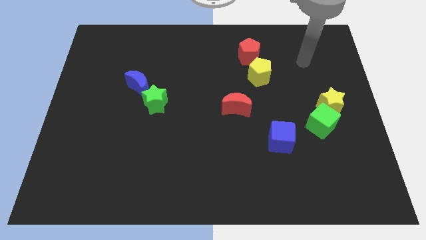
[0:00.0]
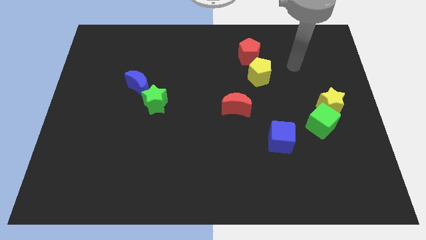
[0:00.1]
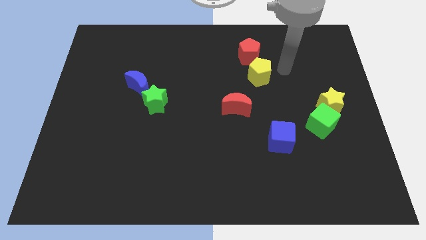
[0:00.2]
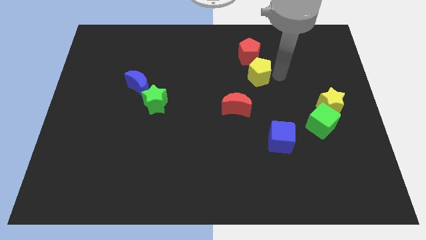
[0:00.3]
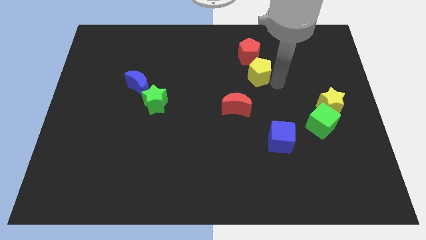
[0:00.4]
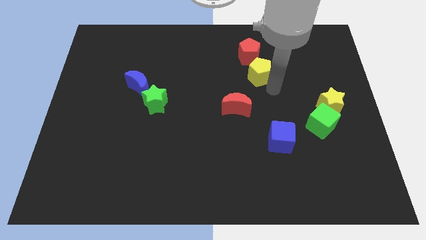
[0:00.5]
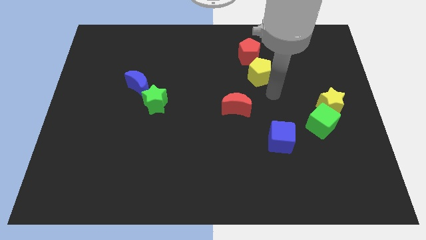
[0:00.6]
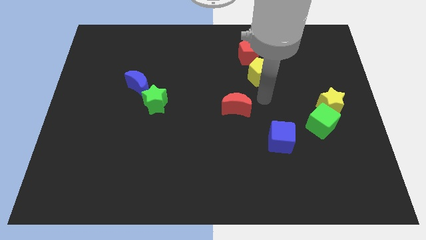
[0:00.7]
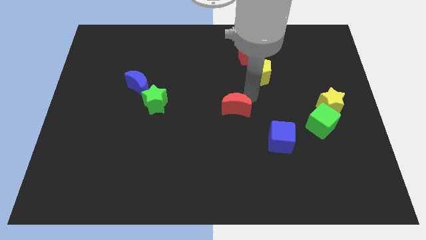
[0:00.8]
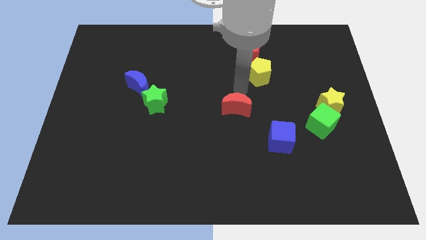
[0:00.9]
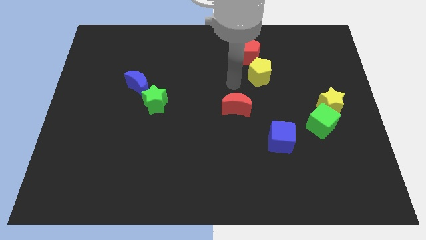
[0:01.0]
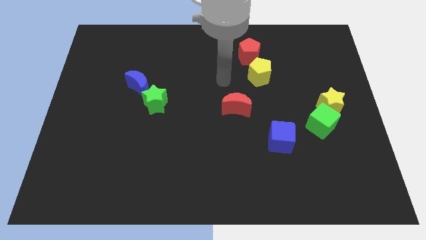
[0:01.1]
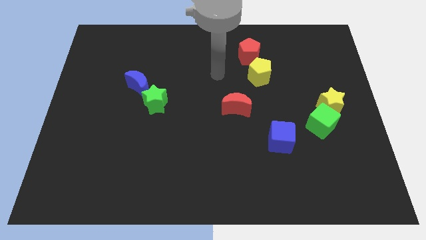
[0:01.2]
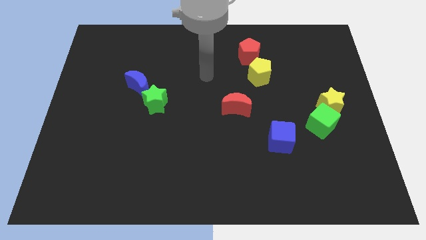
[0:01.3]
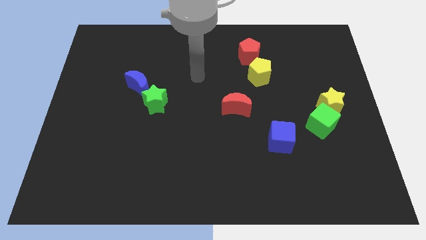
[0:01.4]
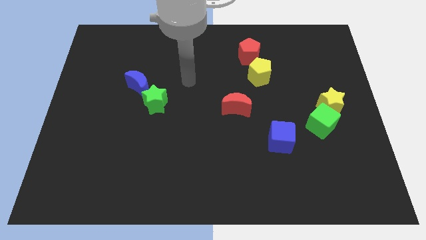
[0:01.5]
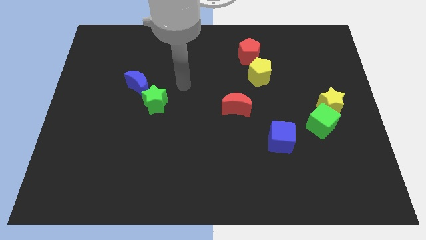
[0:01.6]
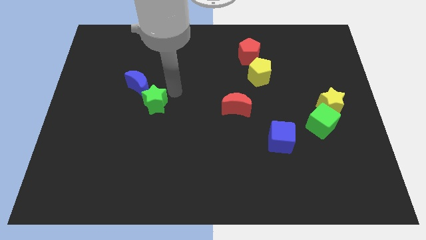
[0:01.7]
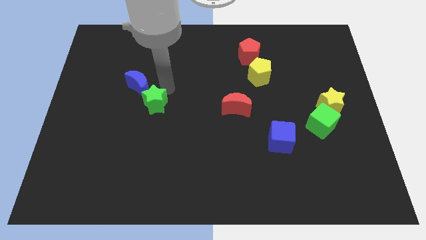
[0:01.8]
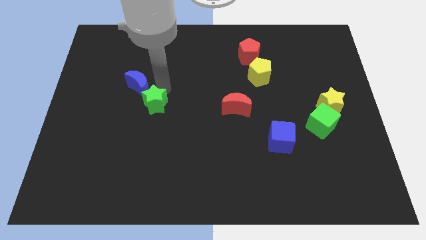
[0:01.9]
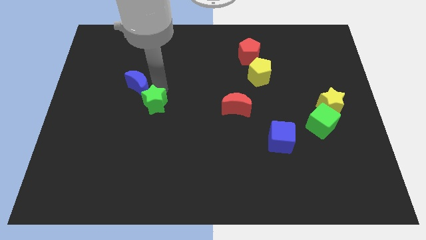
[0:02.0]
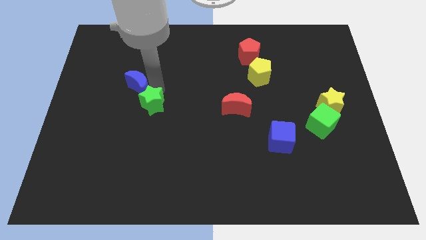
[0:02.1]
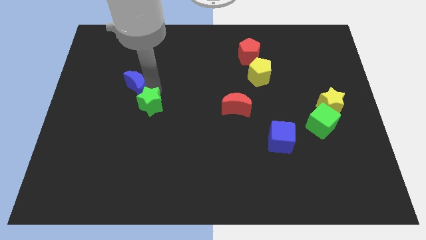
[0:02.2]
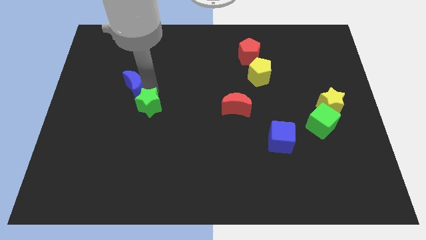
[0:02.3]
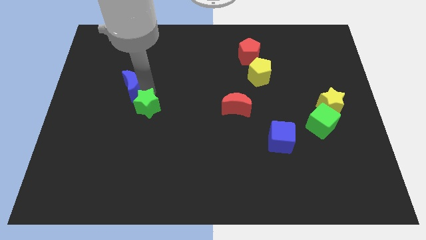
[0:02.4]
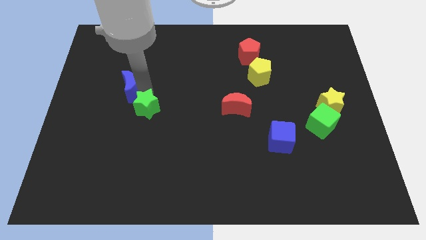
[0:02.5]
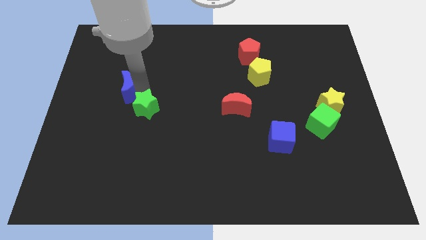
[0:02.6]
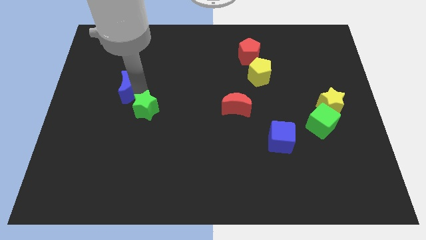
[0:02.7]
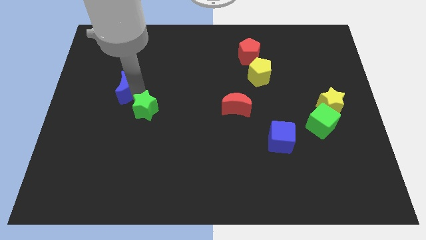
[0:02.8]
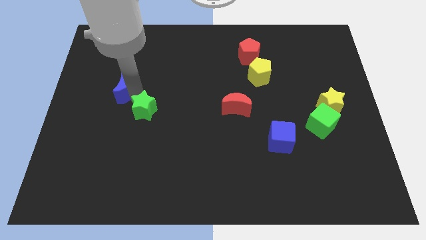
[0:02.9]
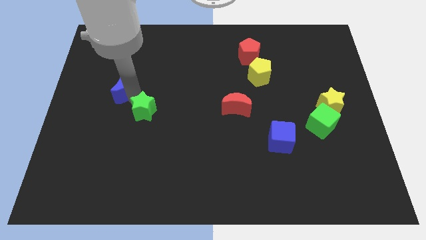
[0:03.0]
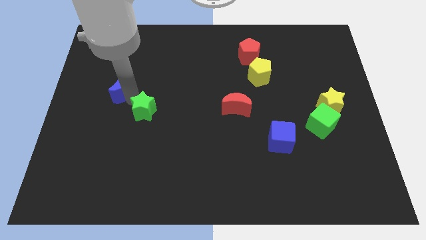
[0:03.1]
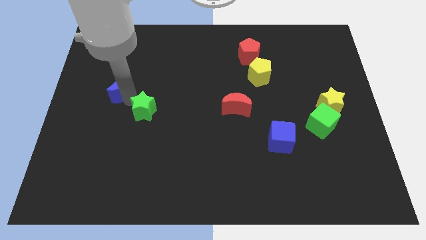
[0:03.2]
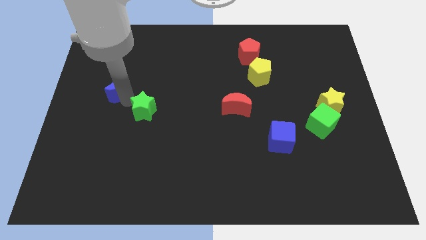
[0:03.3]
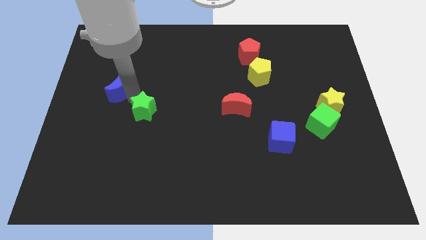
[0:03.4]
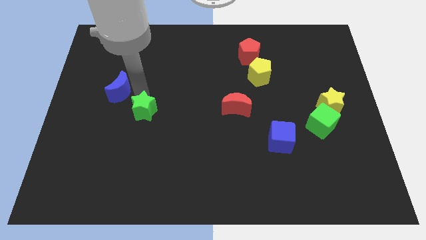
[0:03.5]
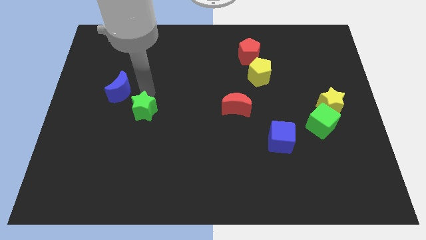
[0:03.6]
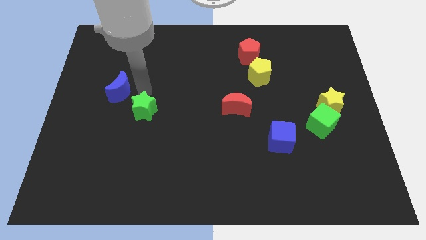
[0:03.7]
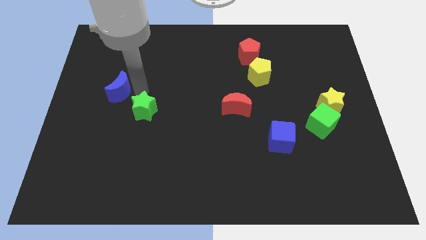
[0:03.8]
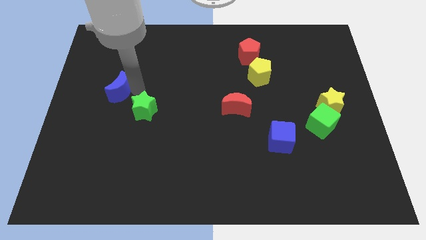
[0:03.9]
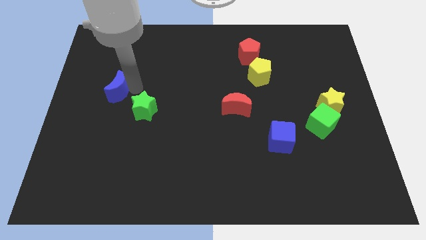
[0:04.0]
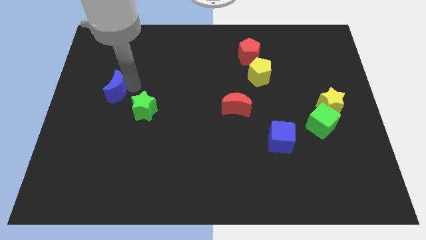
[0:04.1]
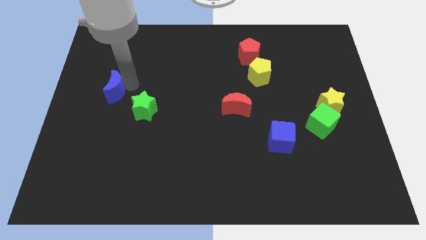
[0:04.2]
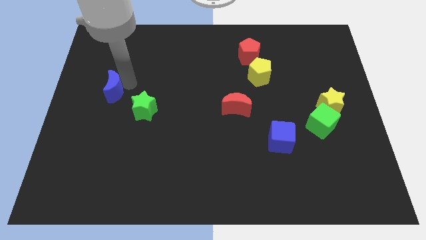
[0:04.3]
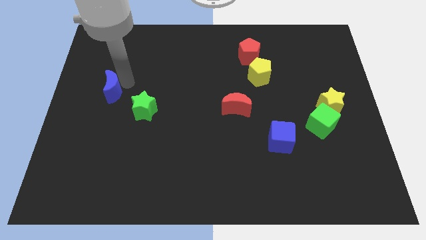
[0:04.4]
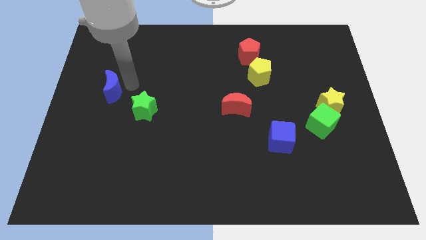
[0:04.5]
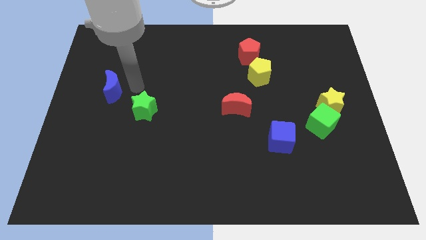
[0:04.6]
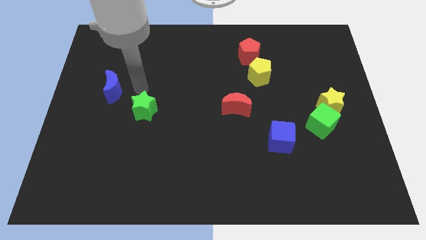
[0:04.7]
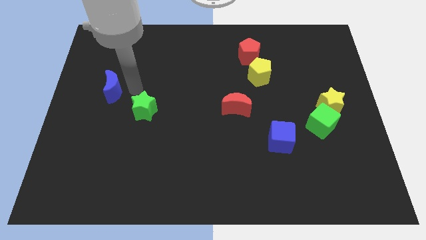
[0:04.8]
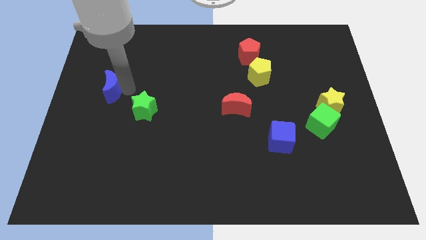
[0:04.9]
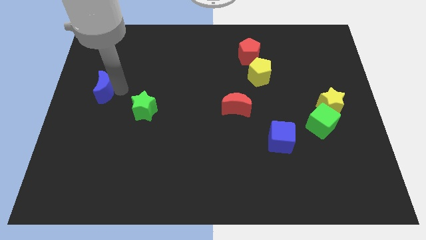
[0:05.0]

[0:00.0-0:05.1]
move the blue moon to the left side of the board

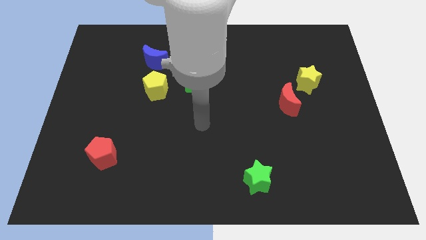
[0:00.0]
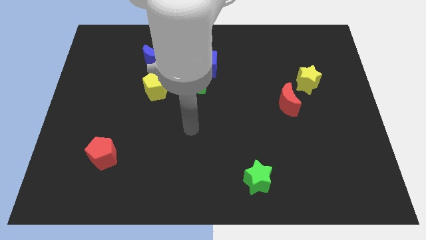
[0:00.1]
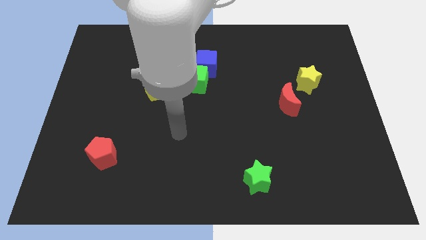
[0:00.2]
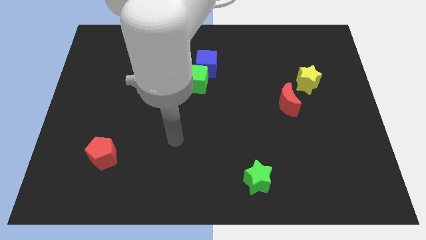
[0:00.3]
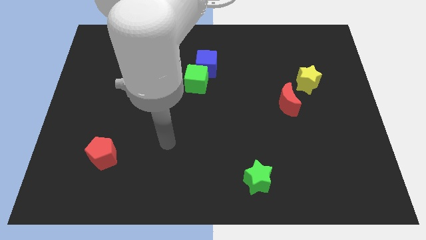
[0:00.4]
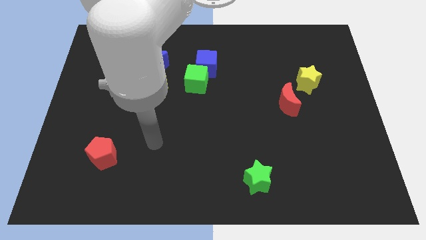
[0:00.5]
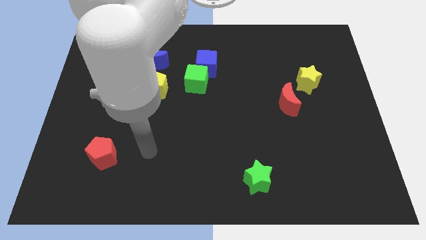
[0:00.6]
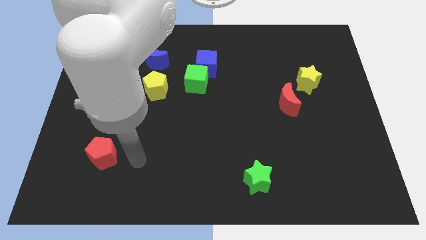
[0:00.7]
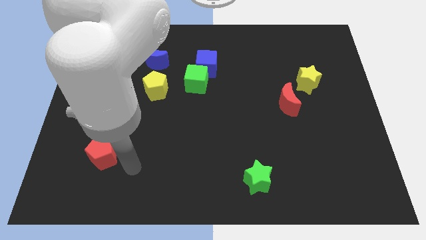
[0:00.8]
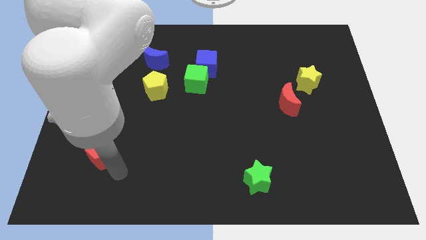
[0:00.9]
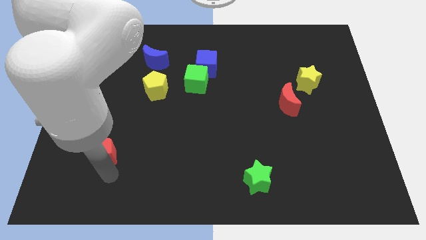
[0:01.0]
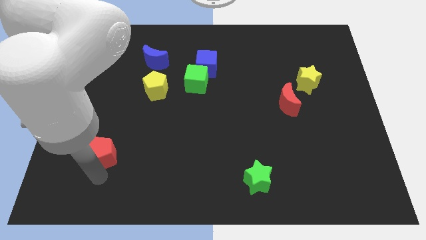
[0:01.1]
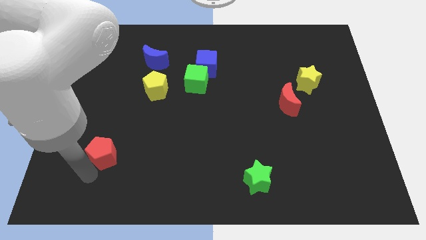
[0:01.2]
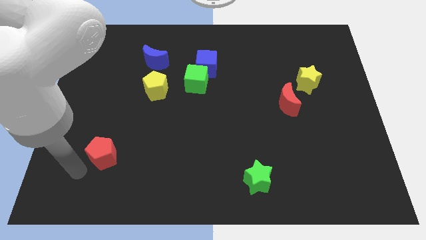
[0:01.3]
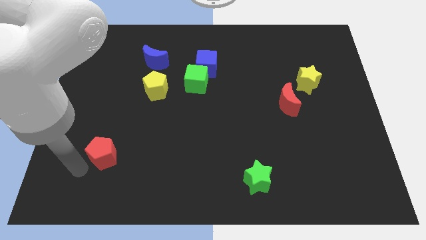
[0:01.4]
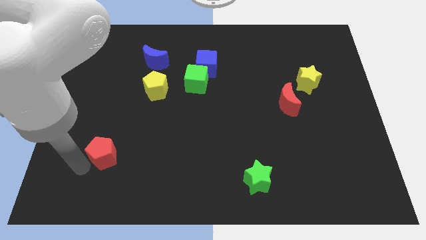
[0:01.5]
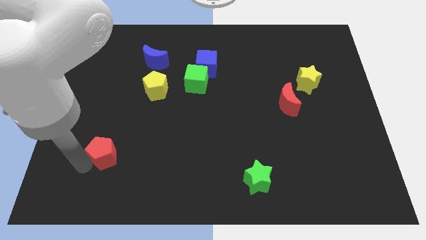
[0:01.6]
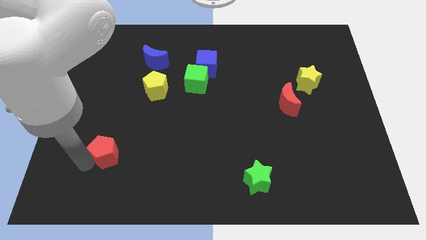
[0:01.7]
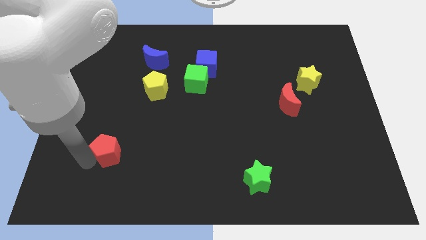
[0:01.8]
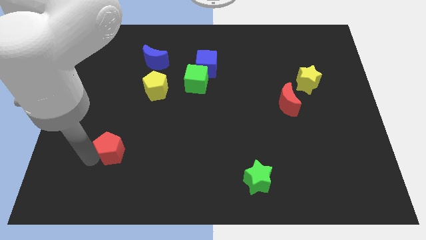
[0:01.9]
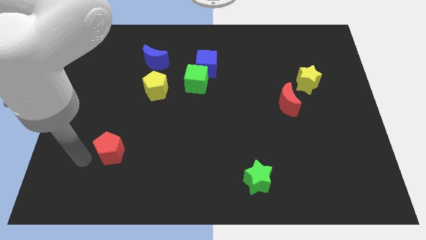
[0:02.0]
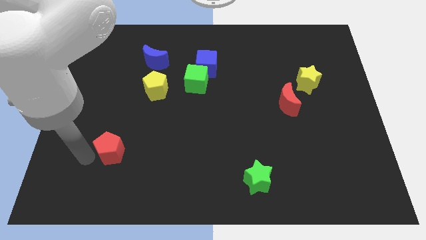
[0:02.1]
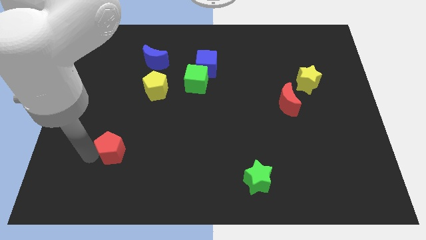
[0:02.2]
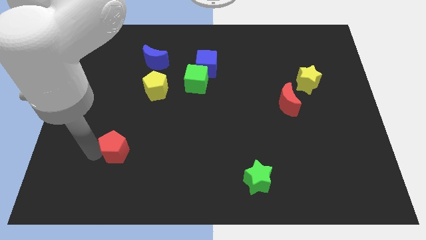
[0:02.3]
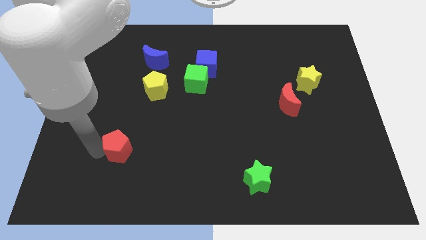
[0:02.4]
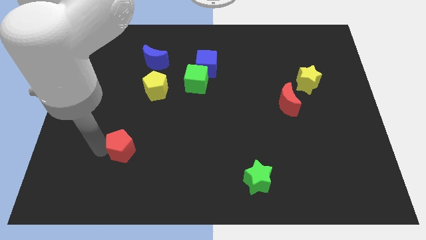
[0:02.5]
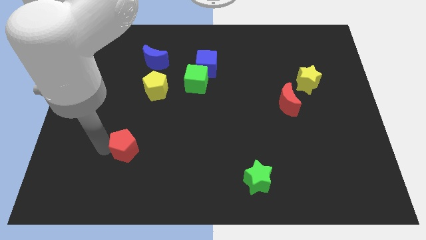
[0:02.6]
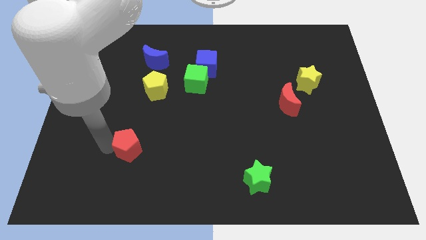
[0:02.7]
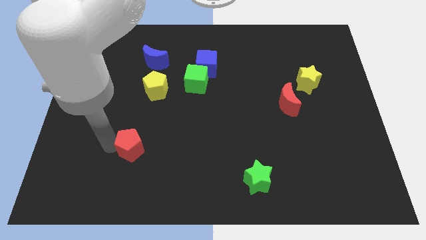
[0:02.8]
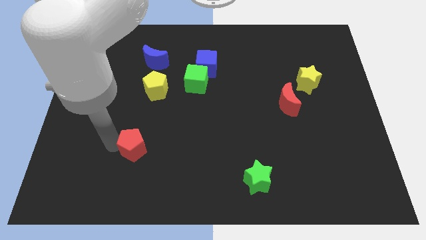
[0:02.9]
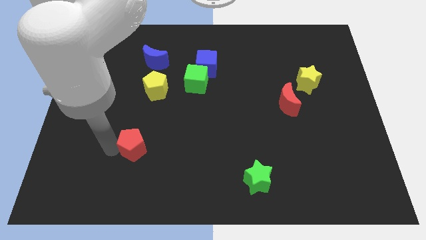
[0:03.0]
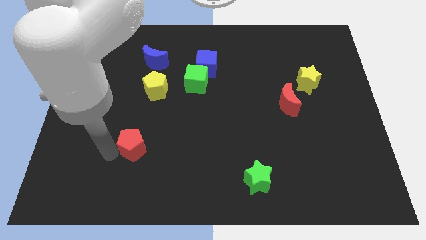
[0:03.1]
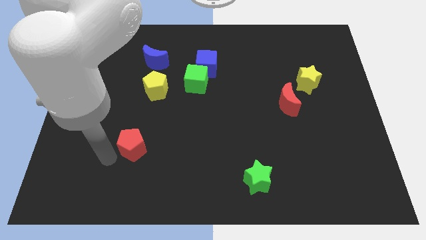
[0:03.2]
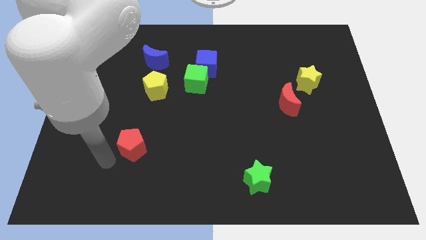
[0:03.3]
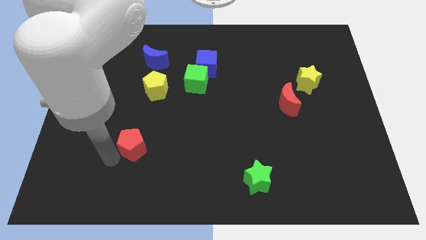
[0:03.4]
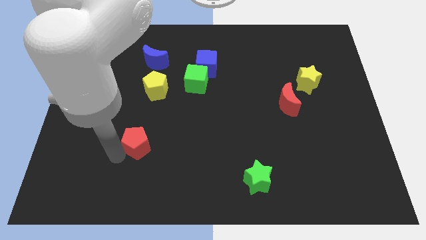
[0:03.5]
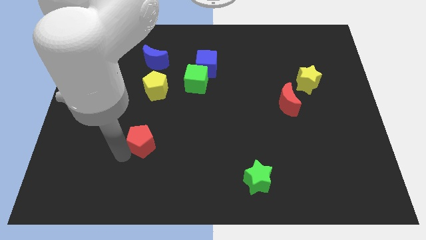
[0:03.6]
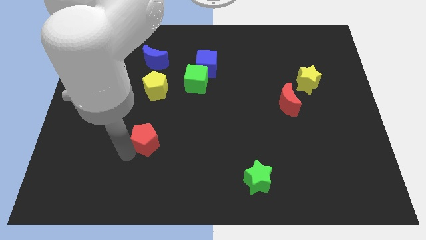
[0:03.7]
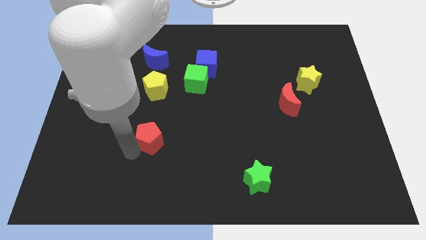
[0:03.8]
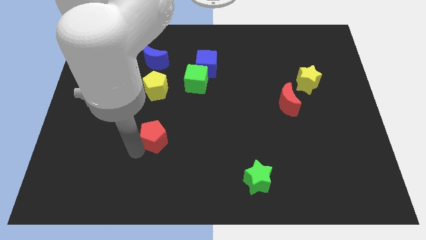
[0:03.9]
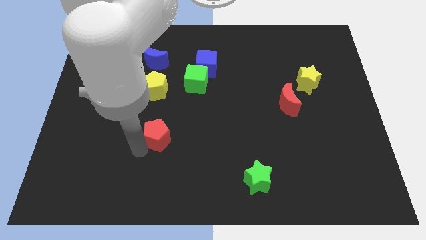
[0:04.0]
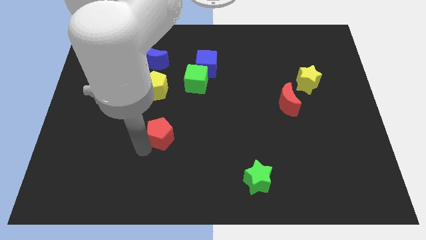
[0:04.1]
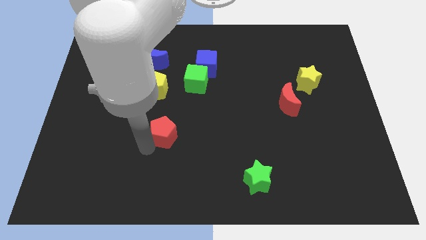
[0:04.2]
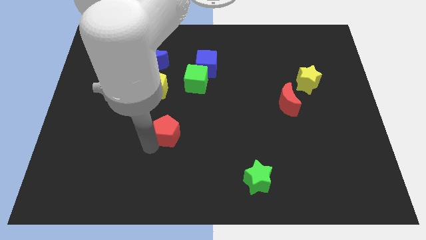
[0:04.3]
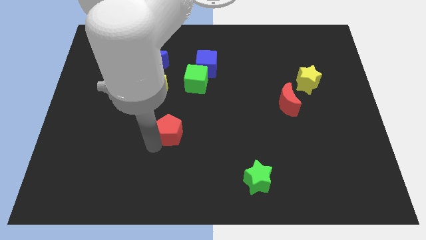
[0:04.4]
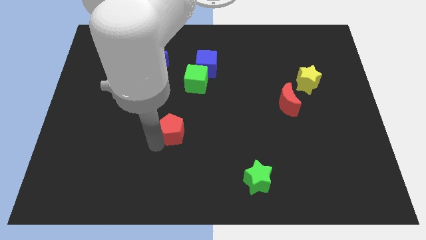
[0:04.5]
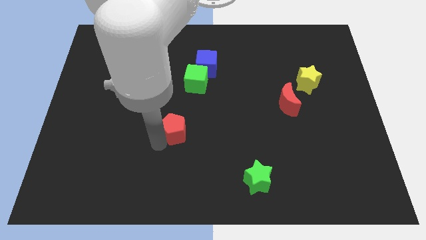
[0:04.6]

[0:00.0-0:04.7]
move the red pentagon to the middle of the board
